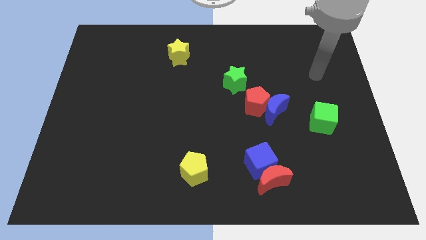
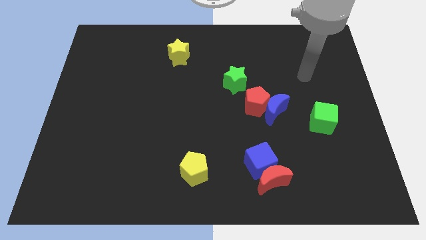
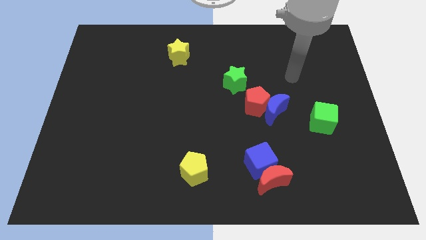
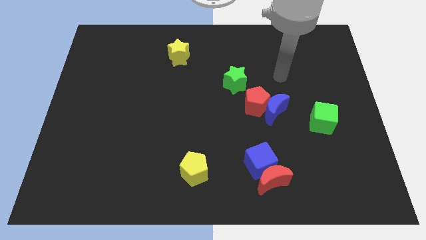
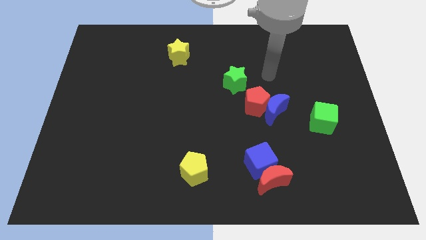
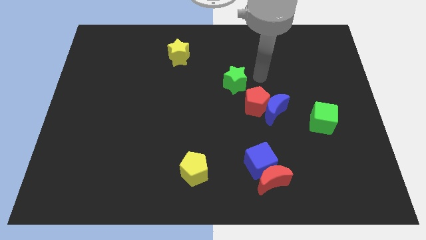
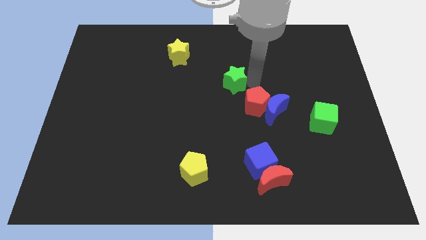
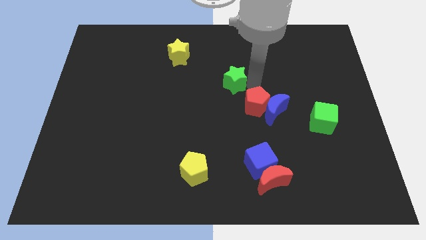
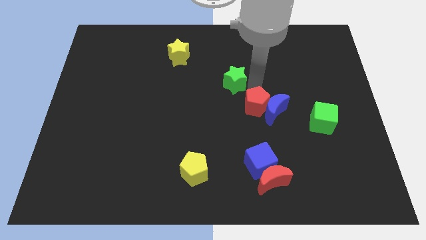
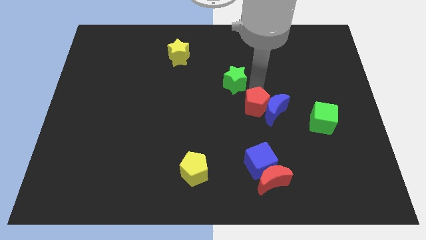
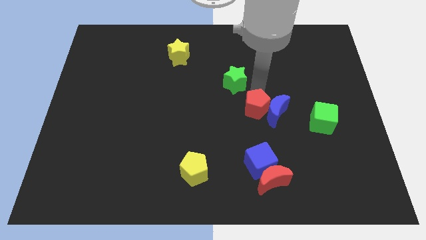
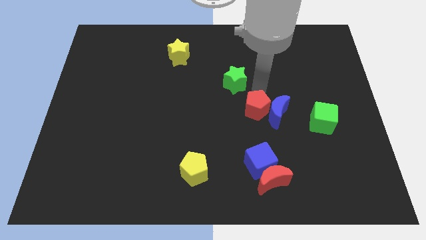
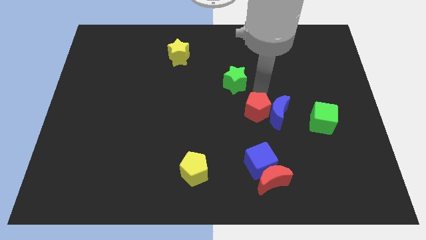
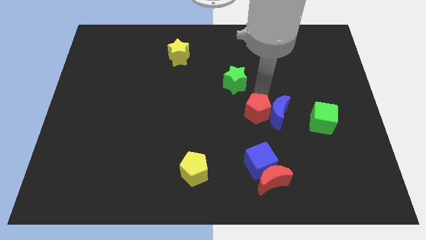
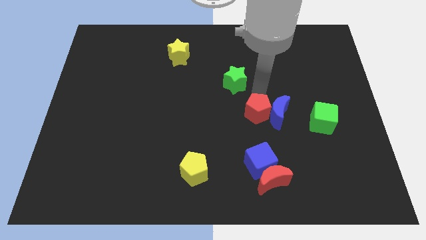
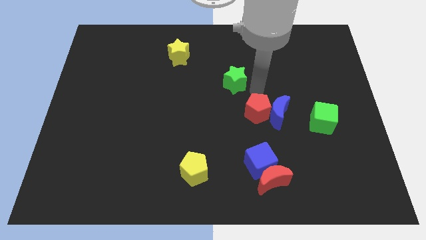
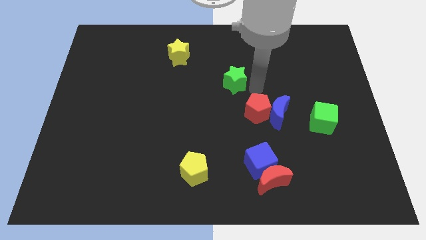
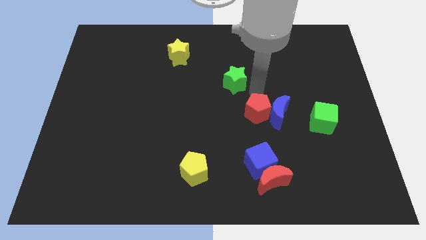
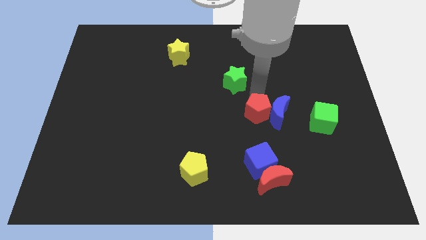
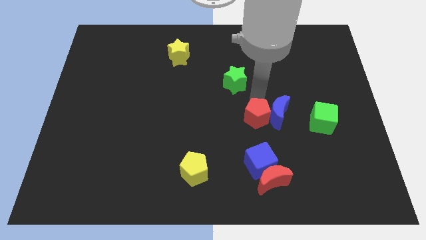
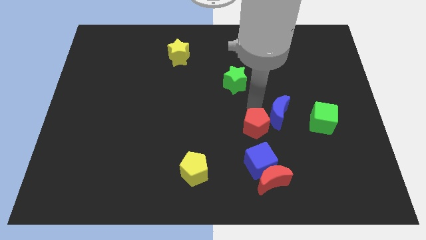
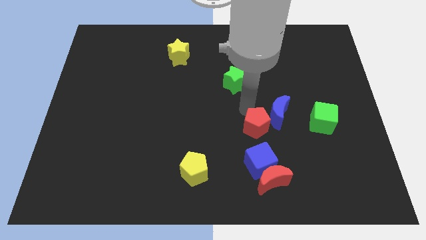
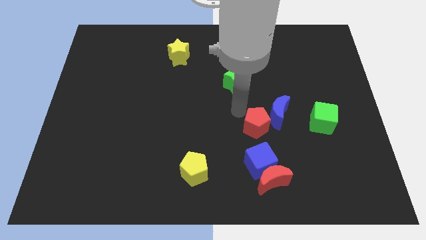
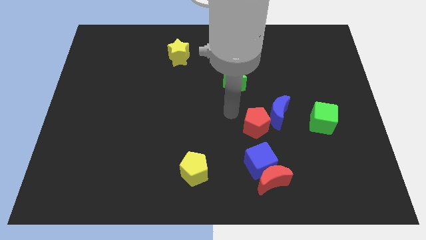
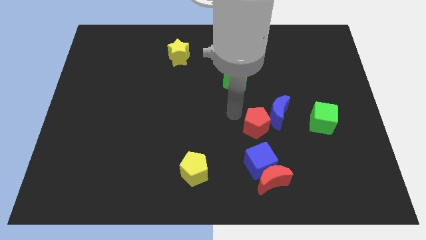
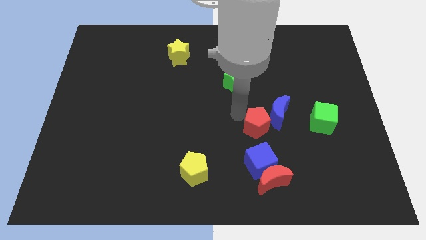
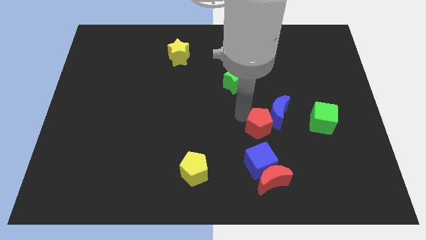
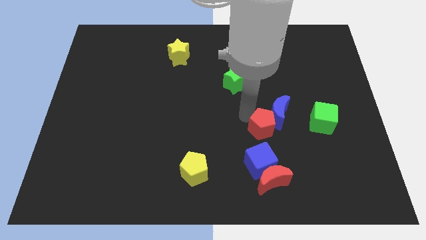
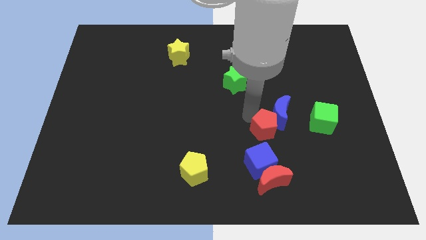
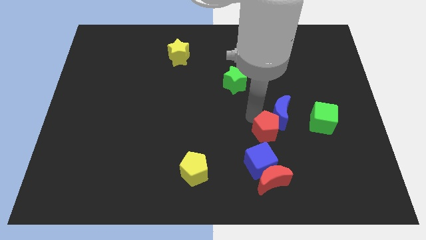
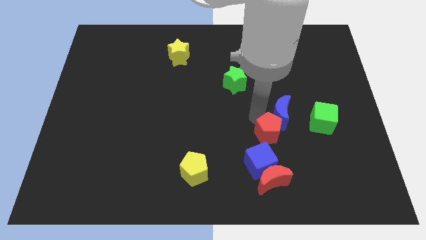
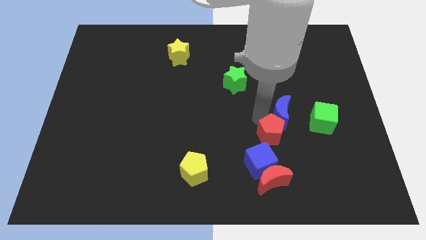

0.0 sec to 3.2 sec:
push the red pentagon downwards and to the right diagonally a little

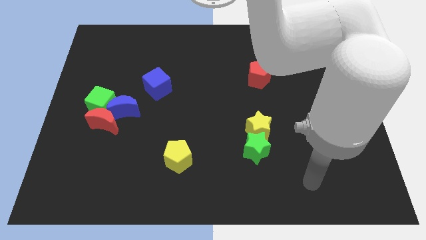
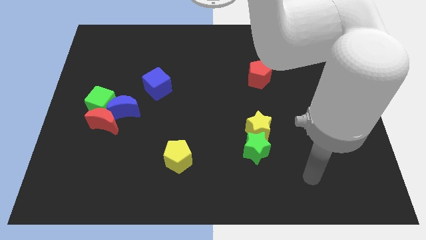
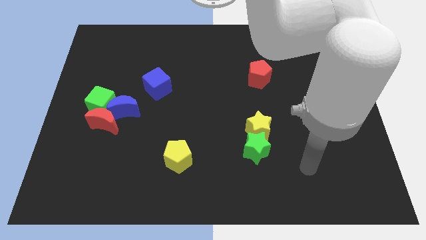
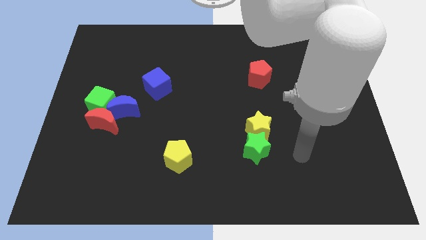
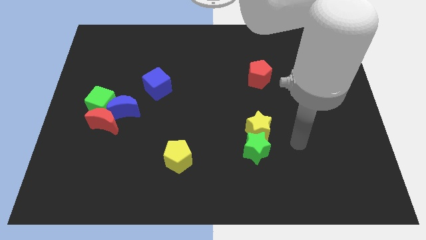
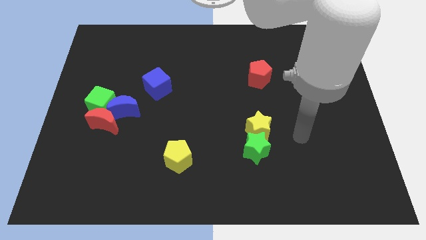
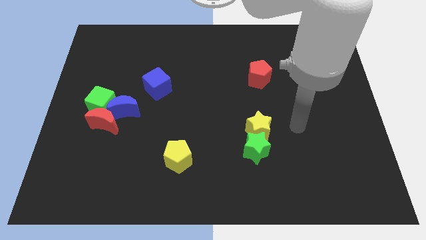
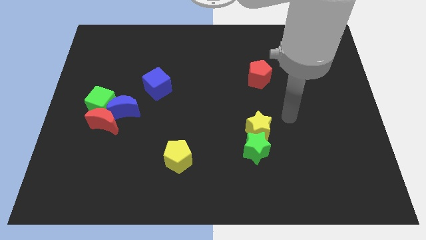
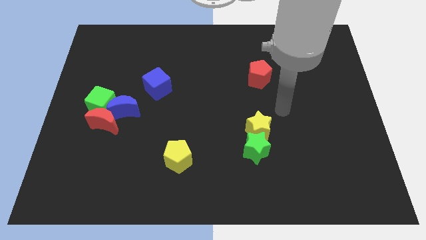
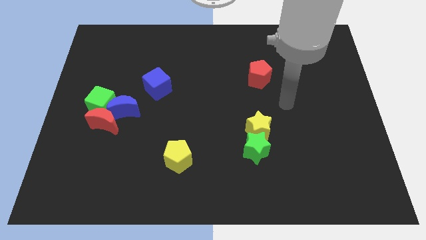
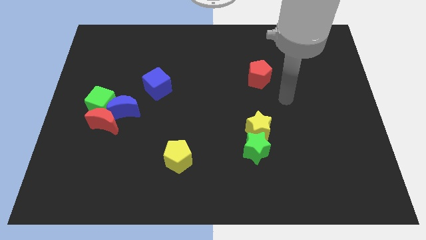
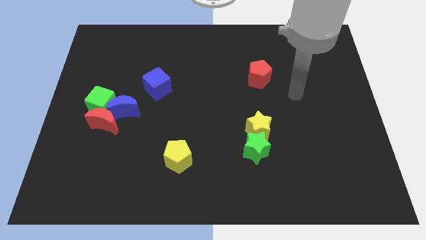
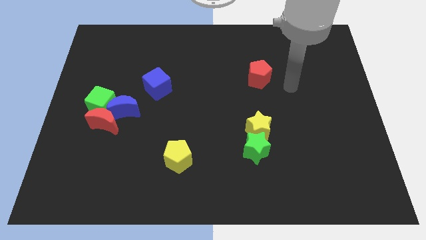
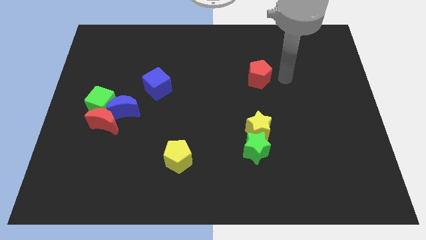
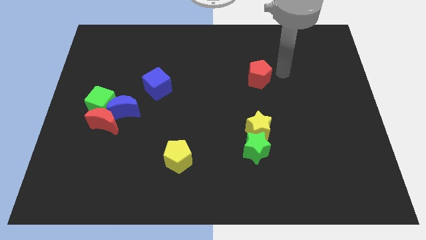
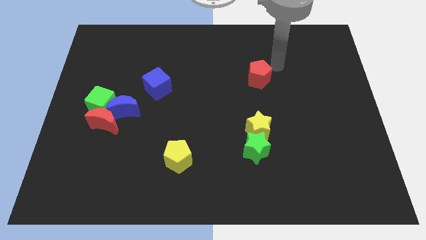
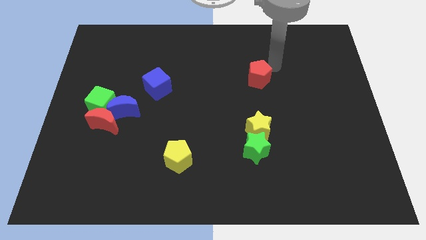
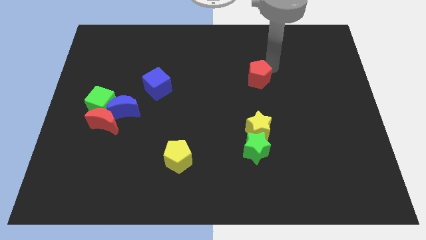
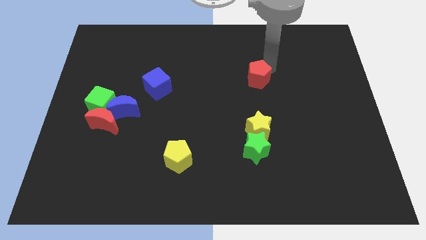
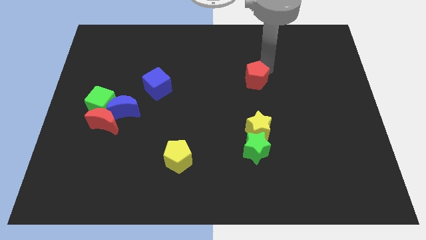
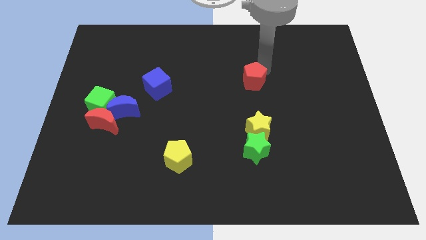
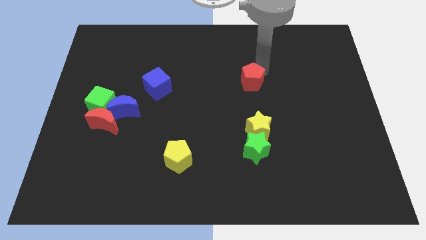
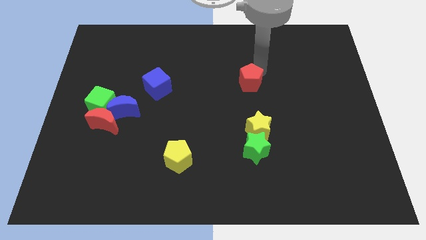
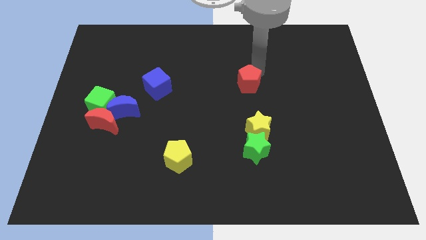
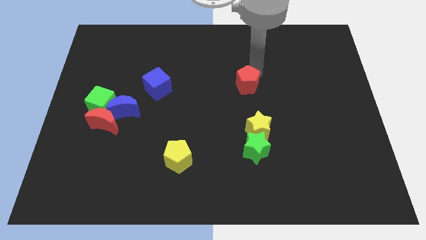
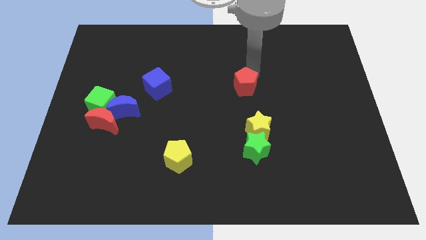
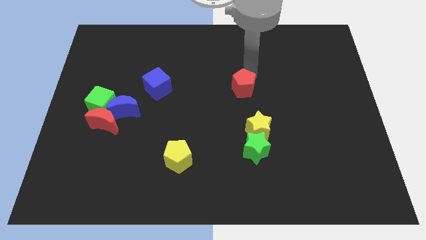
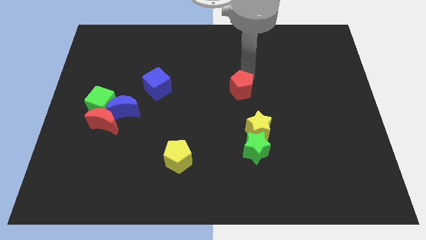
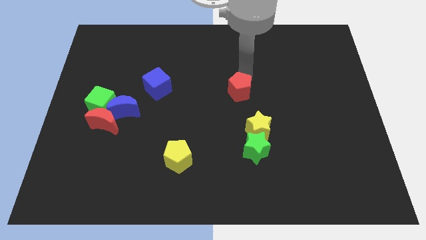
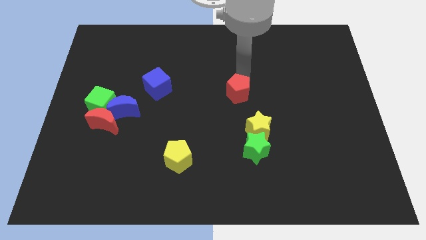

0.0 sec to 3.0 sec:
move the red pentagon a little bit down and to the left diagonally

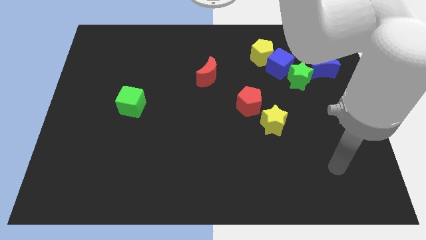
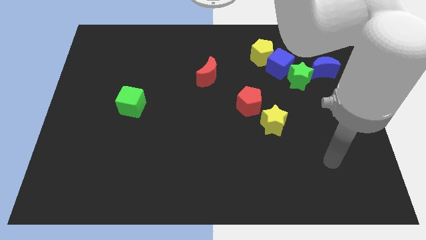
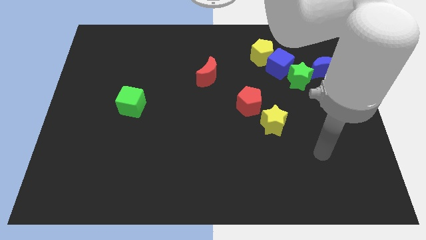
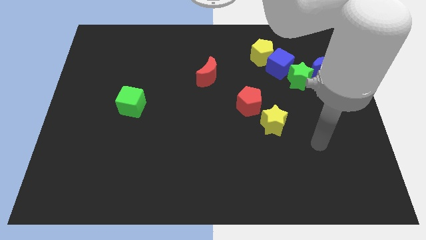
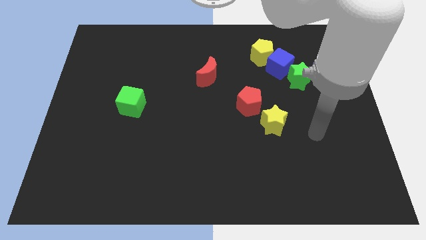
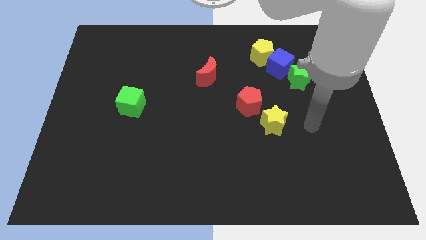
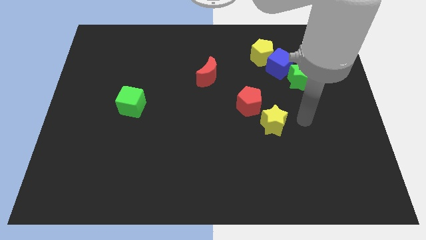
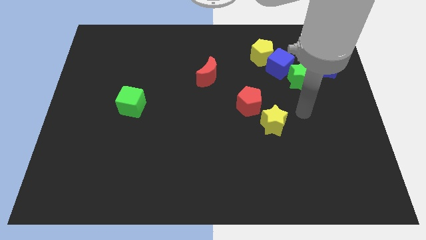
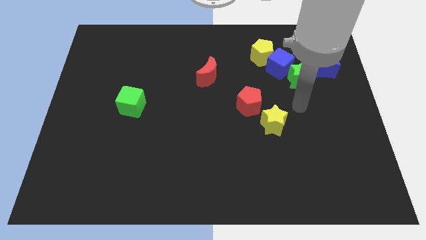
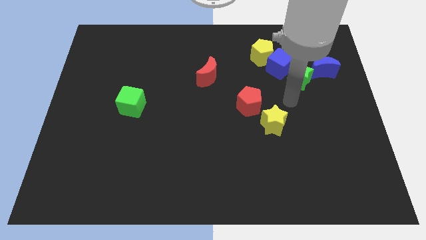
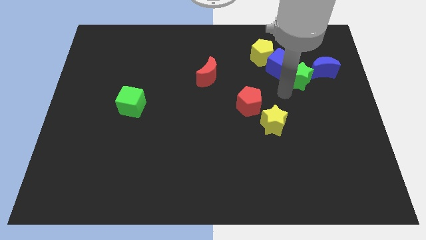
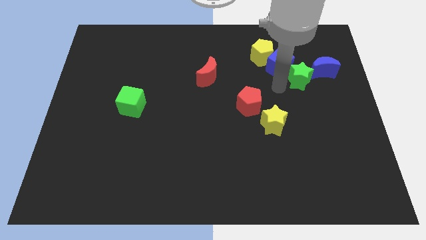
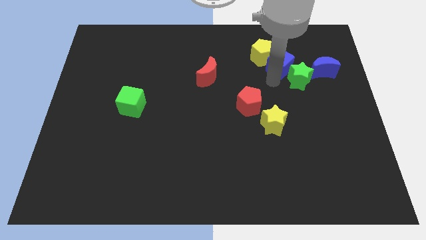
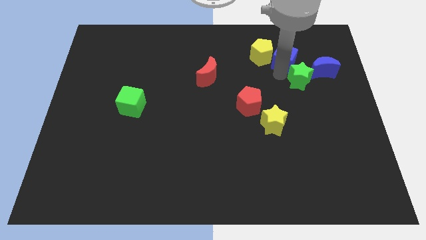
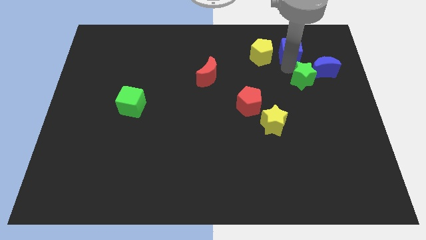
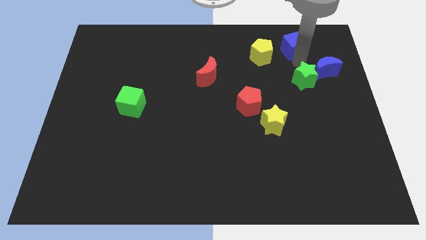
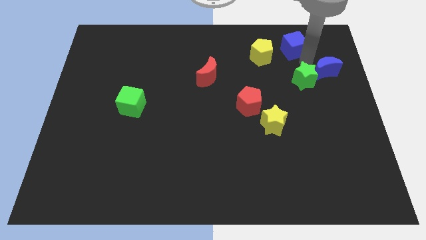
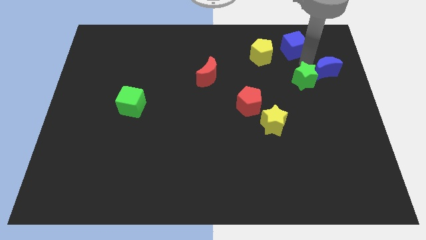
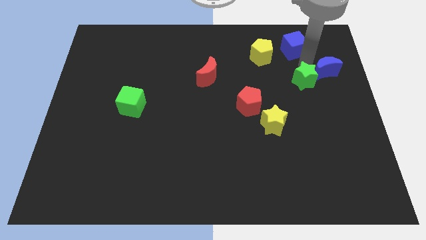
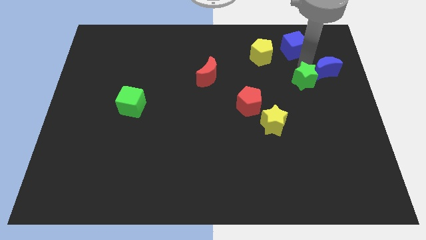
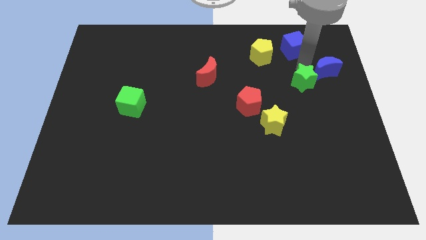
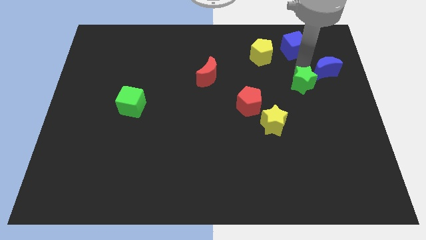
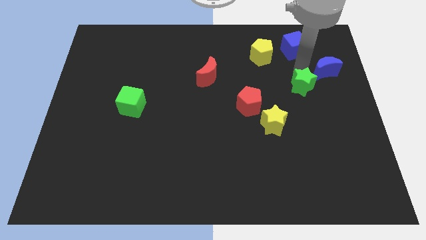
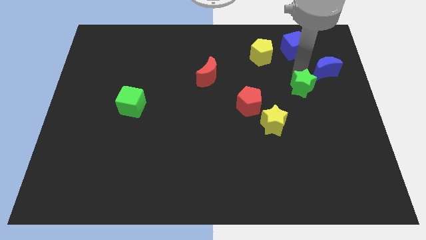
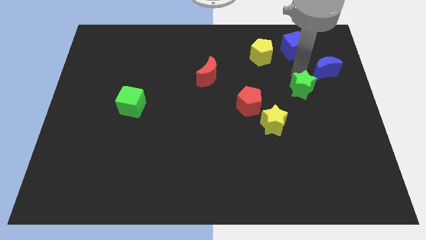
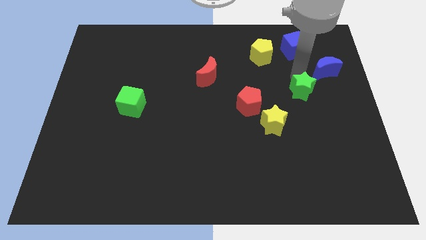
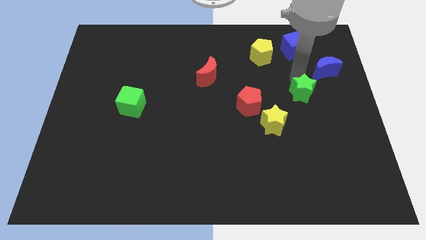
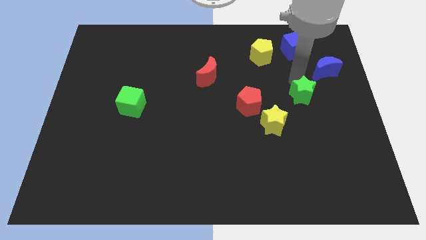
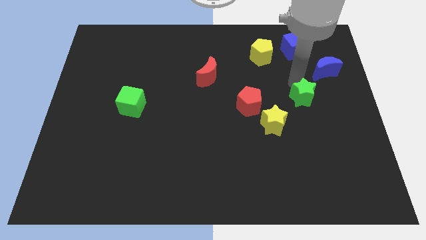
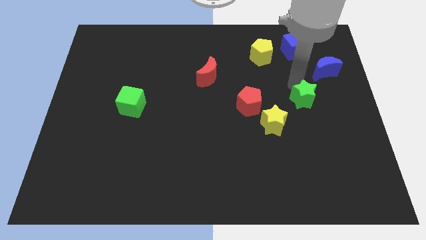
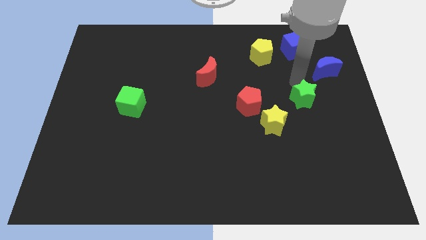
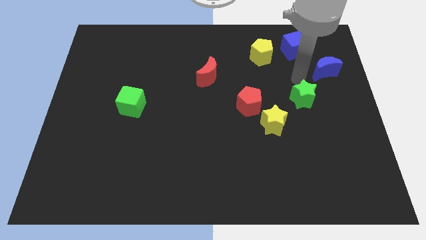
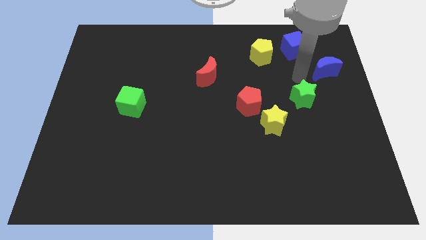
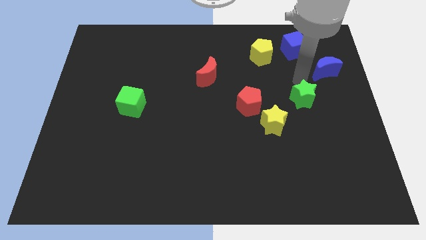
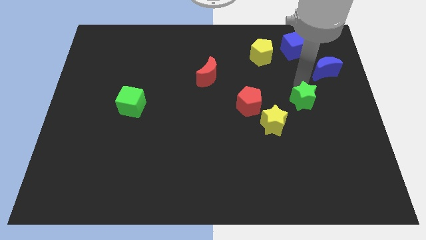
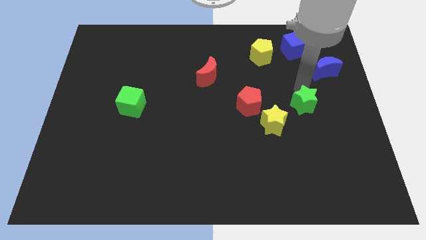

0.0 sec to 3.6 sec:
move the green star down somewhat
